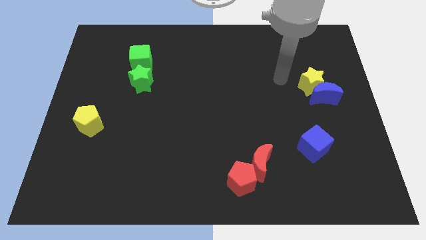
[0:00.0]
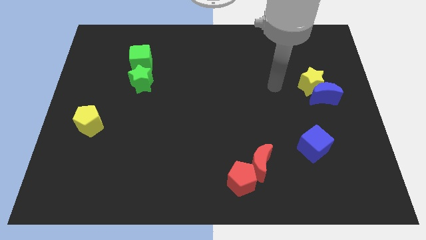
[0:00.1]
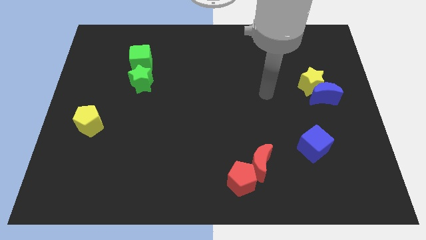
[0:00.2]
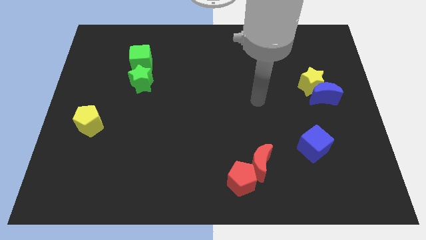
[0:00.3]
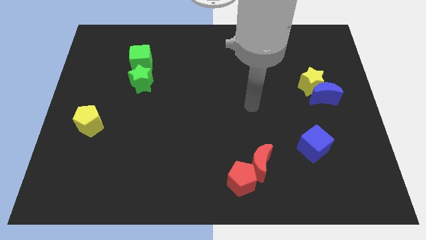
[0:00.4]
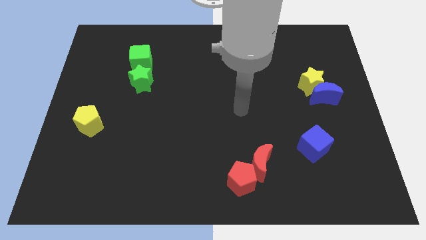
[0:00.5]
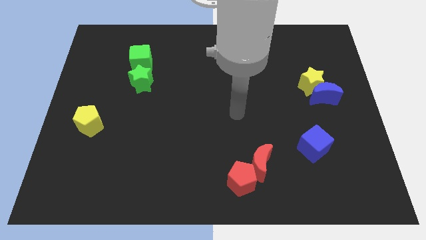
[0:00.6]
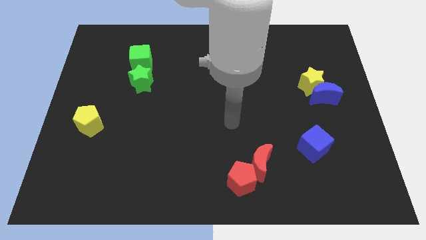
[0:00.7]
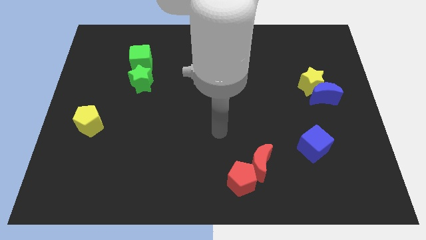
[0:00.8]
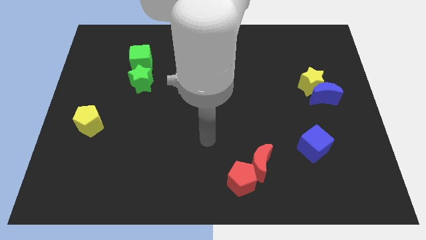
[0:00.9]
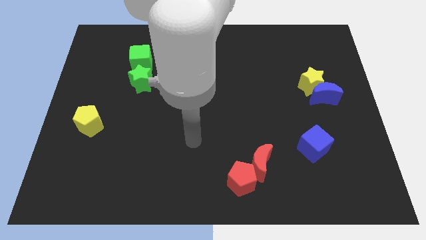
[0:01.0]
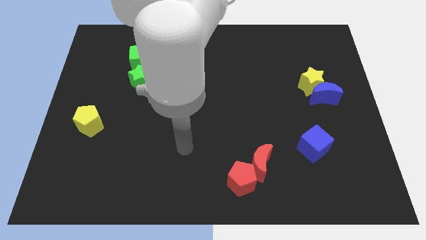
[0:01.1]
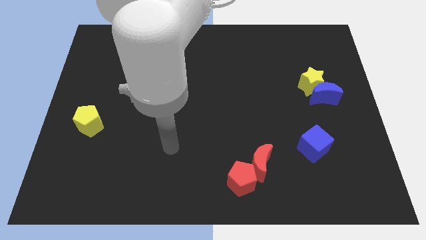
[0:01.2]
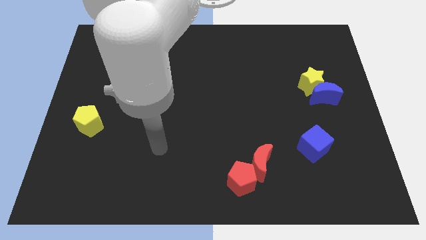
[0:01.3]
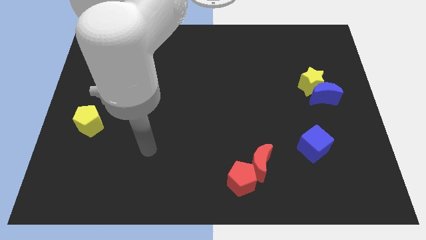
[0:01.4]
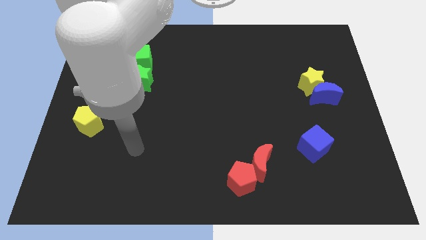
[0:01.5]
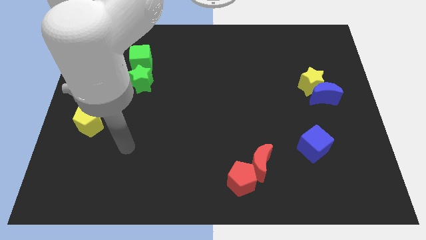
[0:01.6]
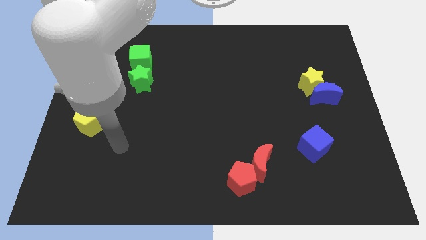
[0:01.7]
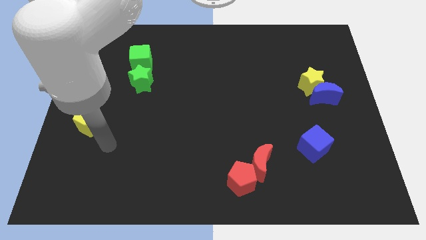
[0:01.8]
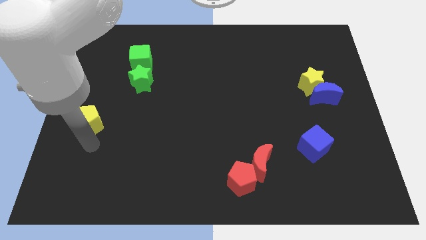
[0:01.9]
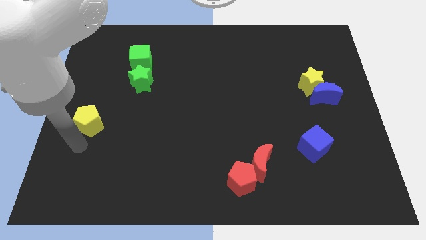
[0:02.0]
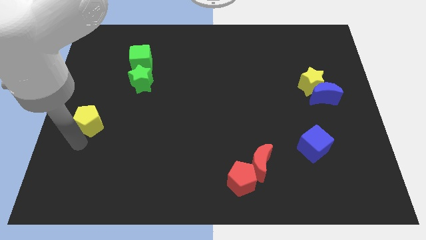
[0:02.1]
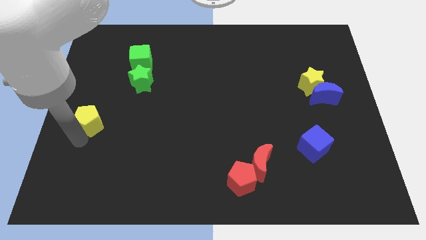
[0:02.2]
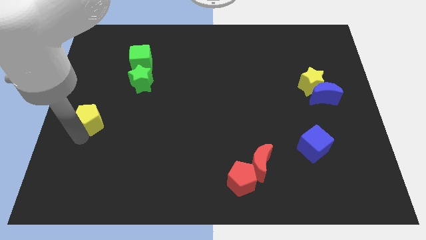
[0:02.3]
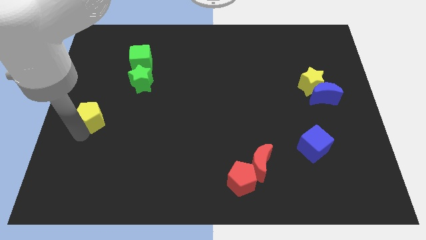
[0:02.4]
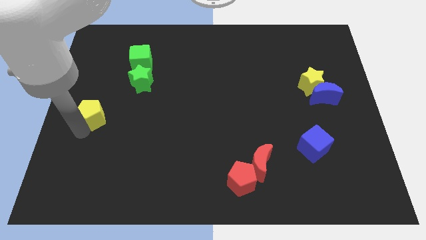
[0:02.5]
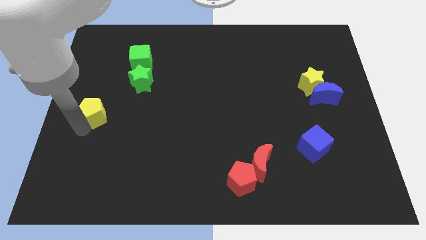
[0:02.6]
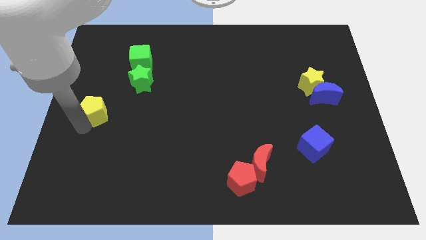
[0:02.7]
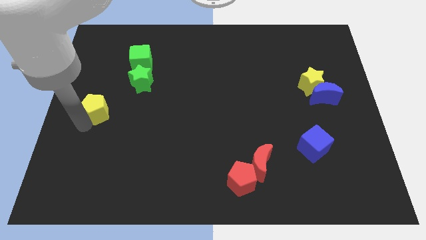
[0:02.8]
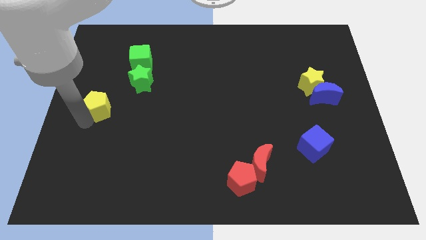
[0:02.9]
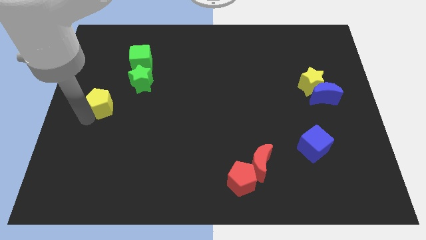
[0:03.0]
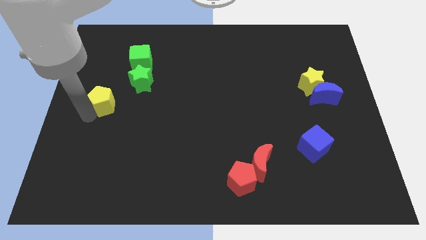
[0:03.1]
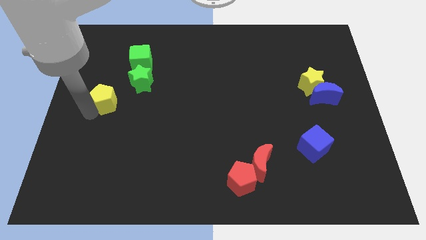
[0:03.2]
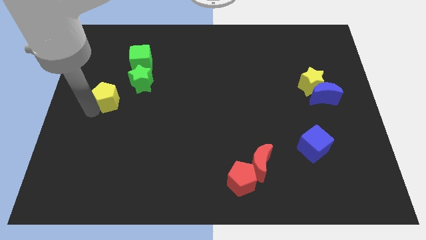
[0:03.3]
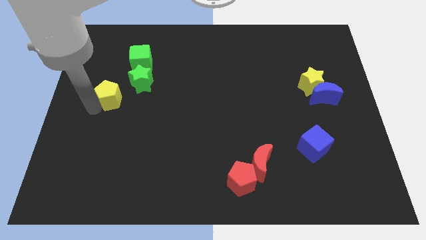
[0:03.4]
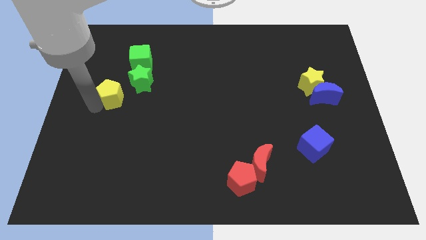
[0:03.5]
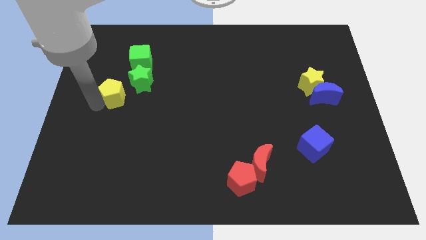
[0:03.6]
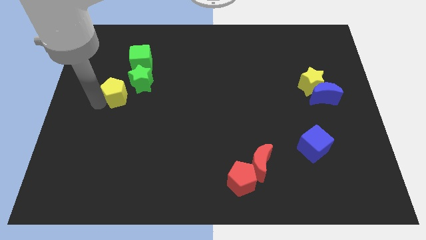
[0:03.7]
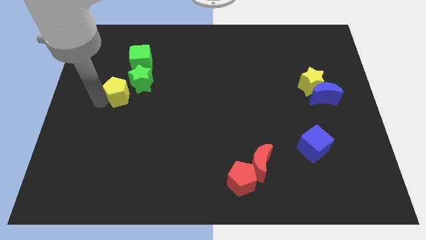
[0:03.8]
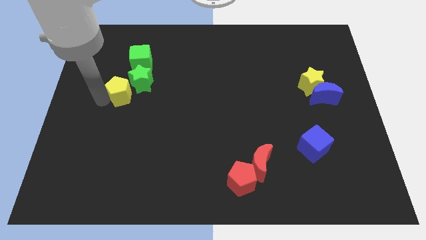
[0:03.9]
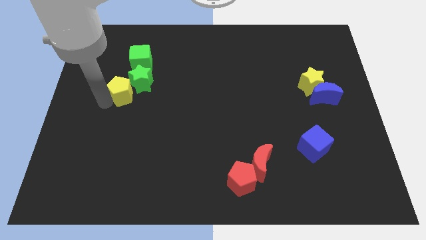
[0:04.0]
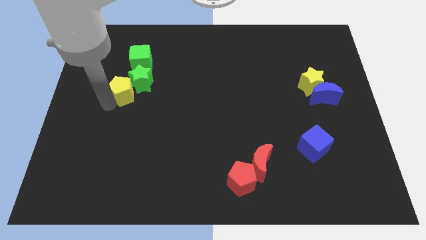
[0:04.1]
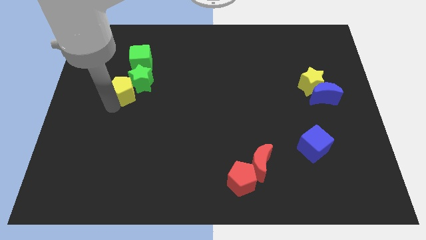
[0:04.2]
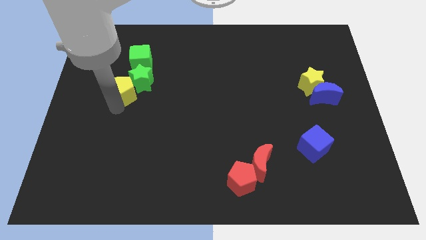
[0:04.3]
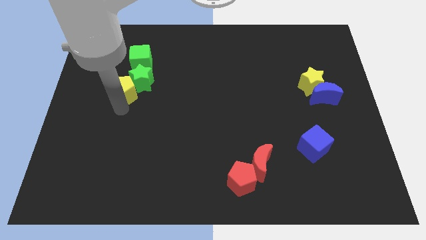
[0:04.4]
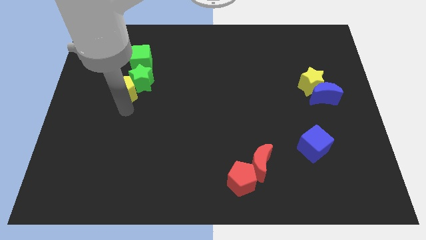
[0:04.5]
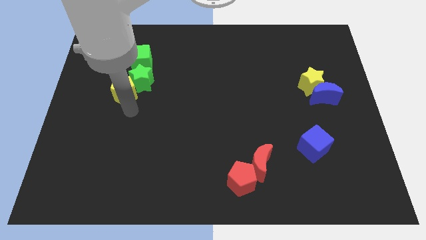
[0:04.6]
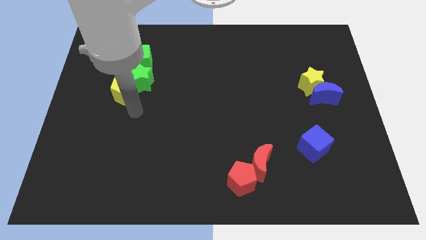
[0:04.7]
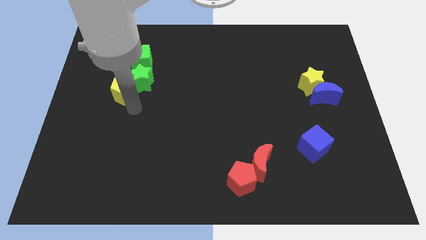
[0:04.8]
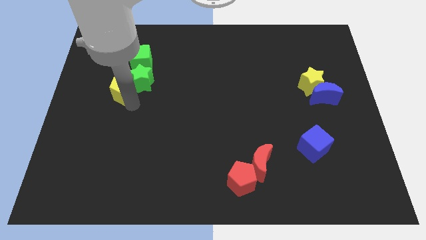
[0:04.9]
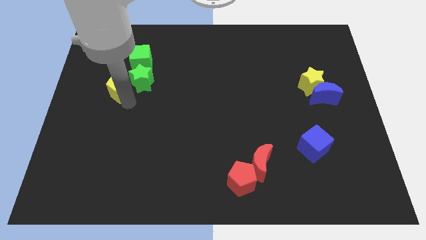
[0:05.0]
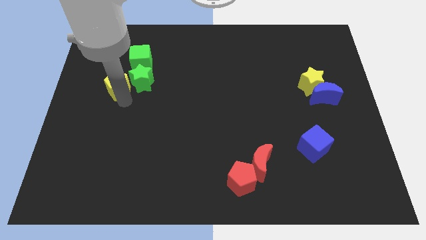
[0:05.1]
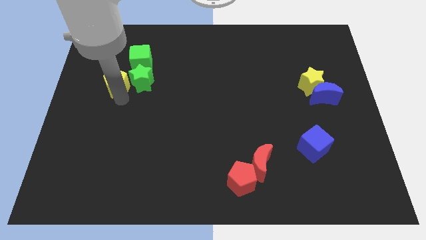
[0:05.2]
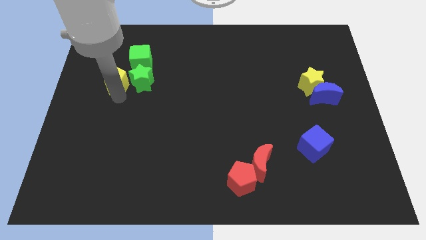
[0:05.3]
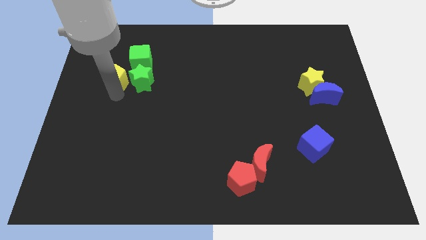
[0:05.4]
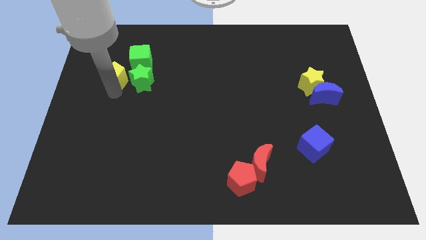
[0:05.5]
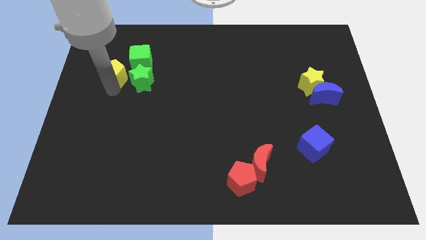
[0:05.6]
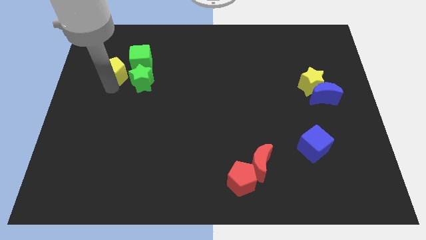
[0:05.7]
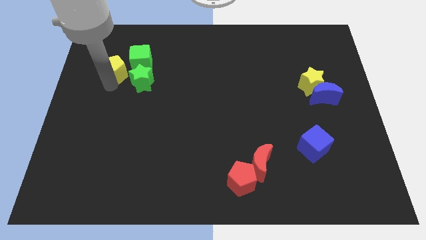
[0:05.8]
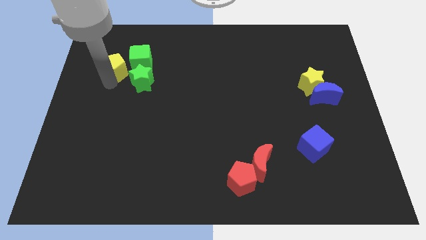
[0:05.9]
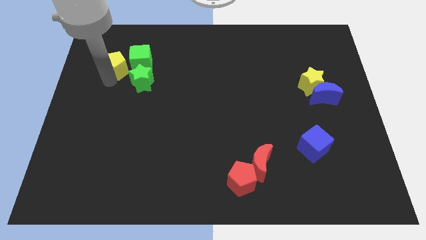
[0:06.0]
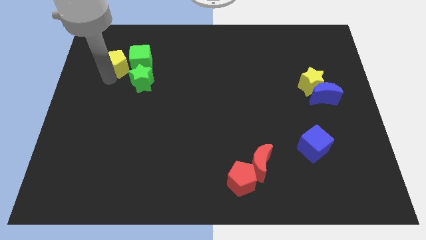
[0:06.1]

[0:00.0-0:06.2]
push the yellow pentagon next to the green cube

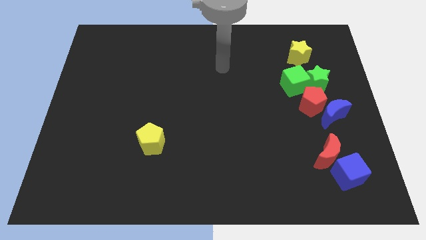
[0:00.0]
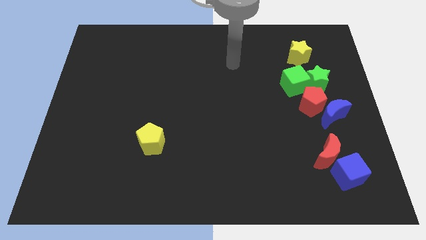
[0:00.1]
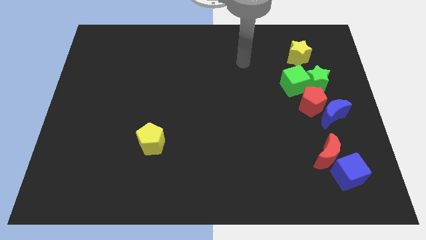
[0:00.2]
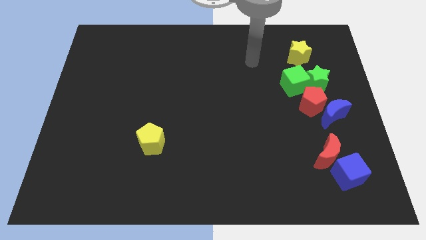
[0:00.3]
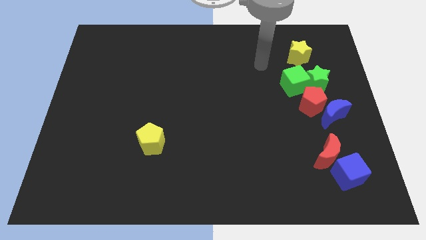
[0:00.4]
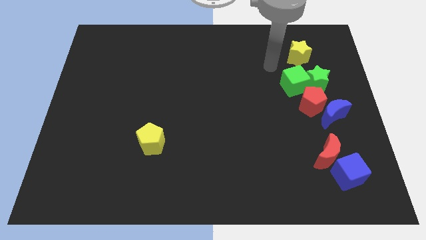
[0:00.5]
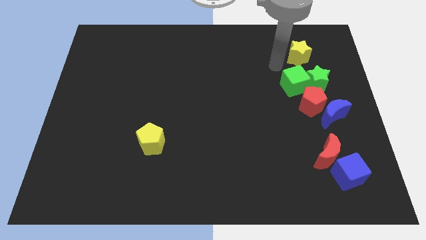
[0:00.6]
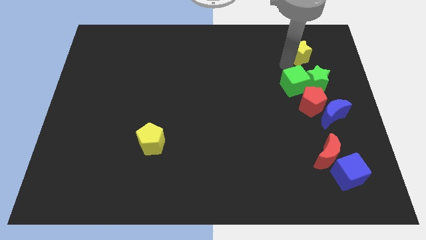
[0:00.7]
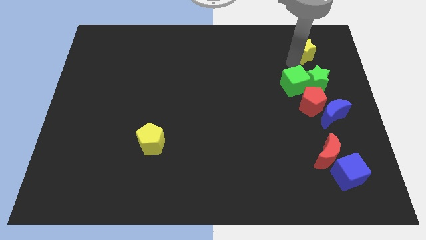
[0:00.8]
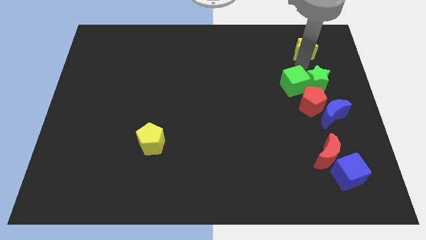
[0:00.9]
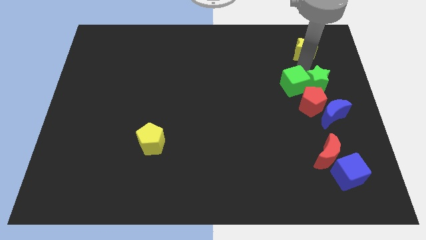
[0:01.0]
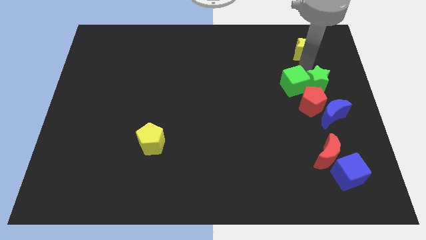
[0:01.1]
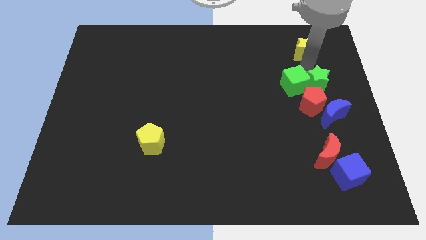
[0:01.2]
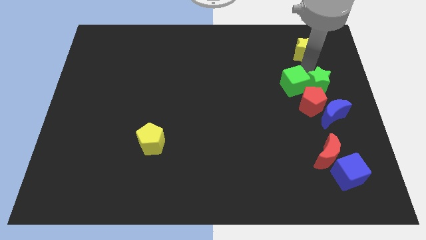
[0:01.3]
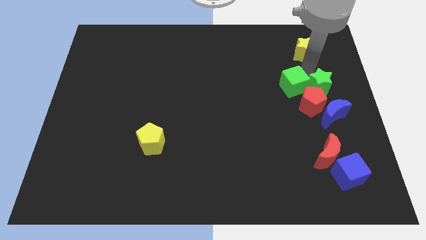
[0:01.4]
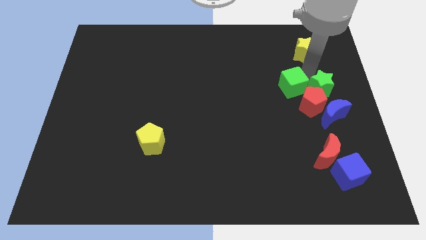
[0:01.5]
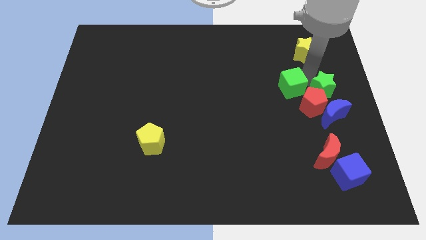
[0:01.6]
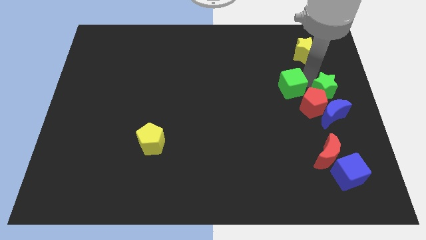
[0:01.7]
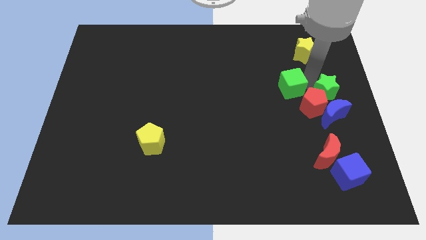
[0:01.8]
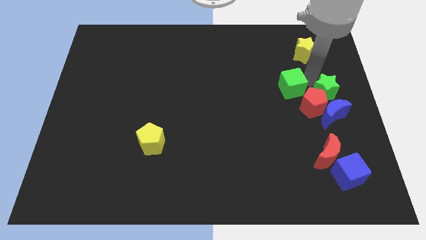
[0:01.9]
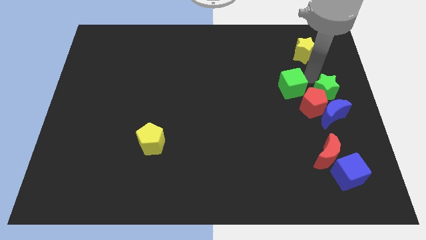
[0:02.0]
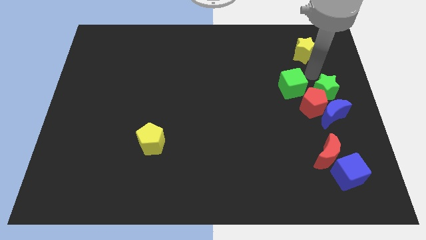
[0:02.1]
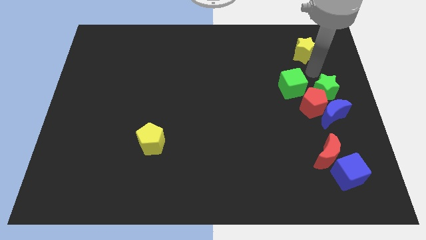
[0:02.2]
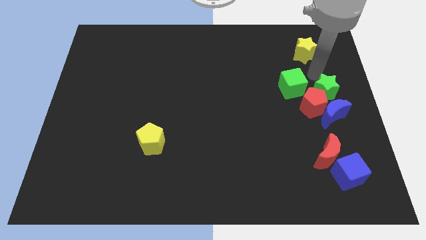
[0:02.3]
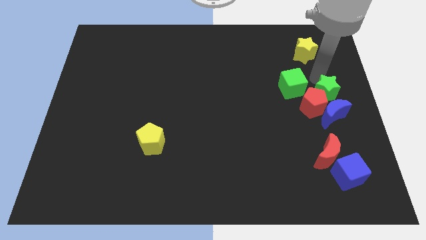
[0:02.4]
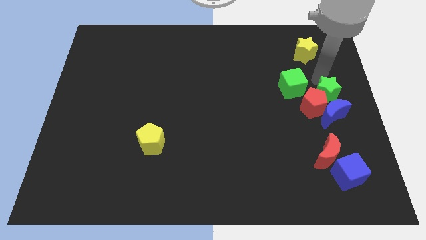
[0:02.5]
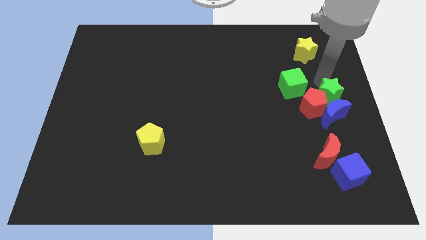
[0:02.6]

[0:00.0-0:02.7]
slide the green star towards the blue moon
